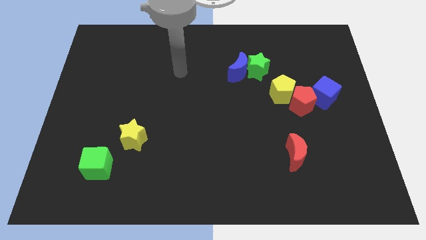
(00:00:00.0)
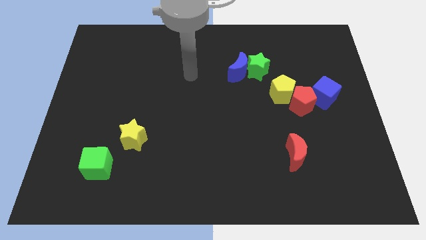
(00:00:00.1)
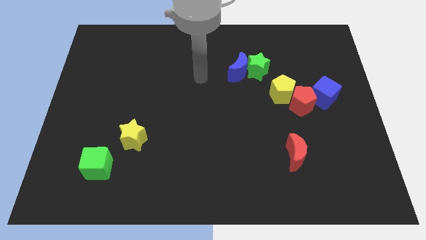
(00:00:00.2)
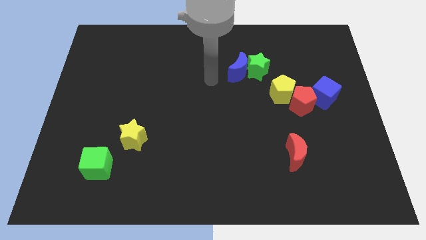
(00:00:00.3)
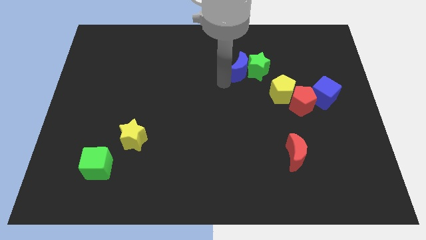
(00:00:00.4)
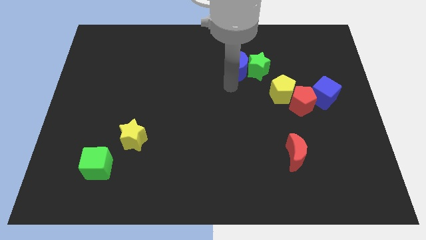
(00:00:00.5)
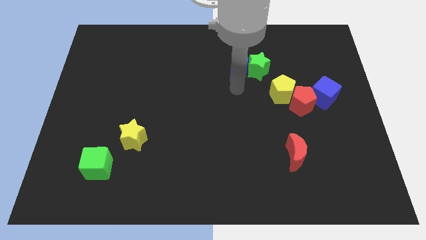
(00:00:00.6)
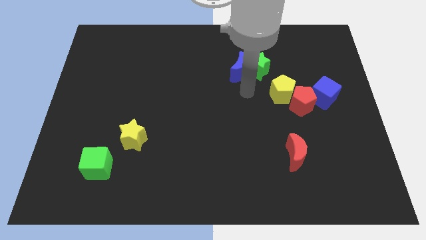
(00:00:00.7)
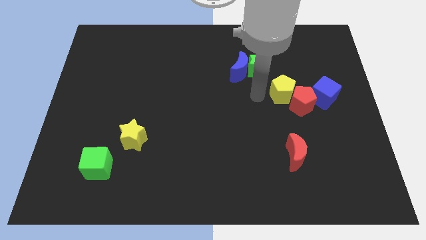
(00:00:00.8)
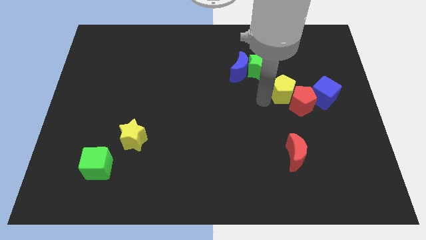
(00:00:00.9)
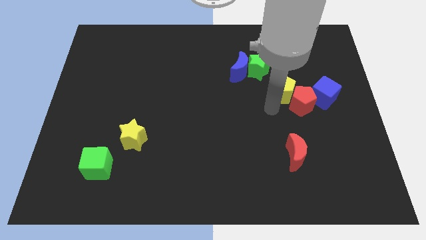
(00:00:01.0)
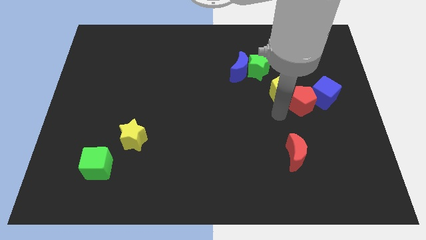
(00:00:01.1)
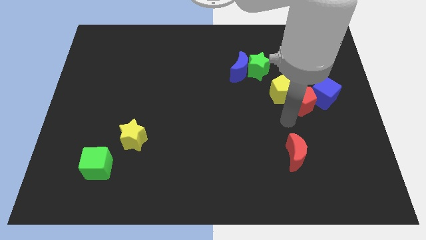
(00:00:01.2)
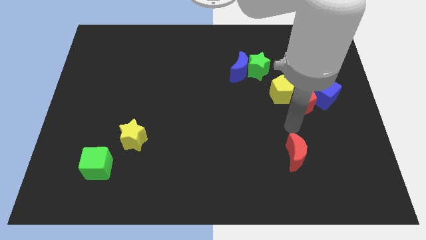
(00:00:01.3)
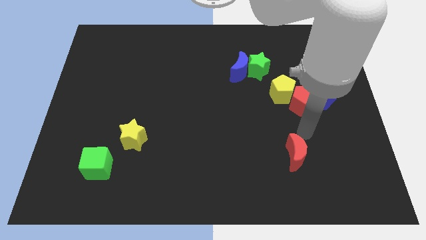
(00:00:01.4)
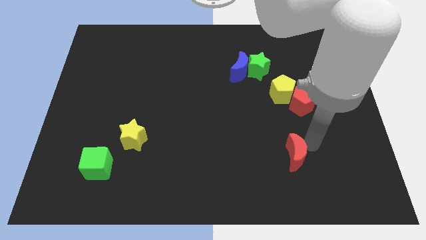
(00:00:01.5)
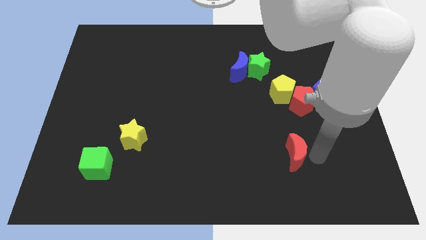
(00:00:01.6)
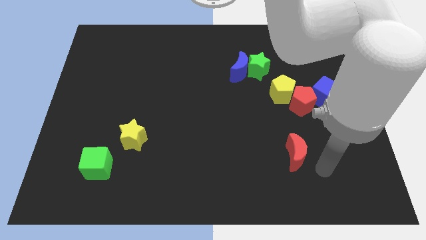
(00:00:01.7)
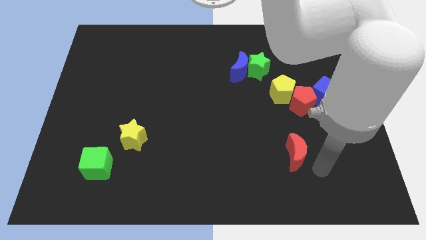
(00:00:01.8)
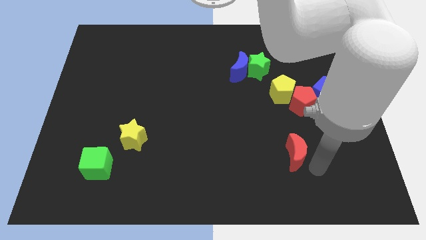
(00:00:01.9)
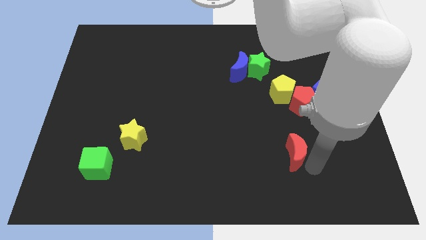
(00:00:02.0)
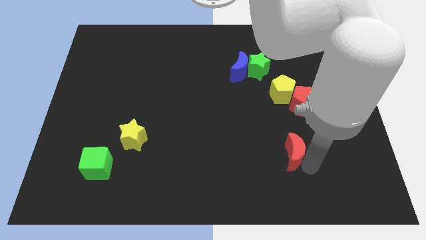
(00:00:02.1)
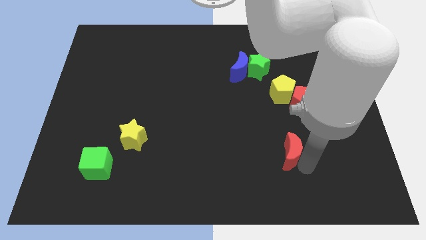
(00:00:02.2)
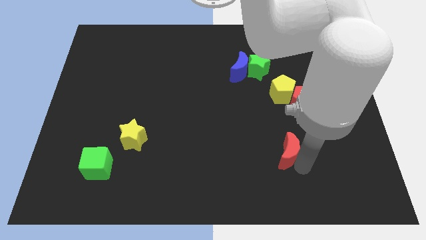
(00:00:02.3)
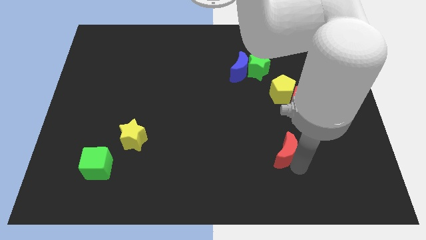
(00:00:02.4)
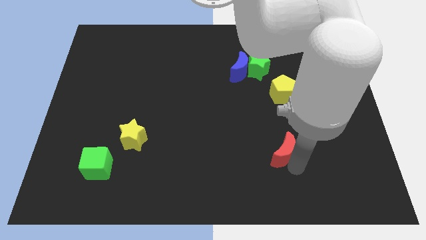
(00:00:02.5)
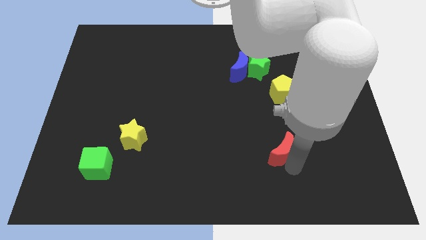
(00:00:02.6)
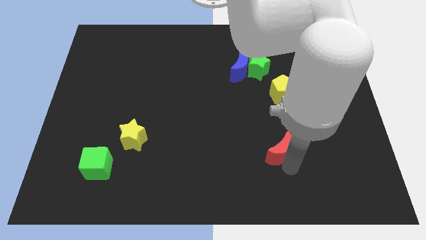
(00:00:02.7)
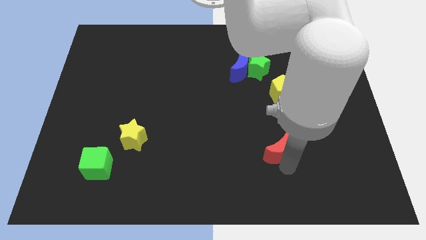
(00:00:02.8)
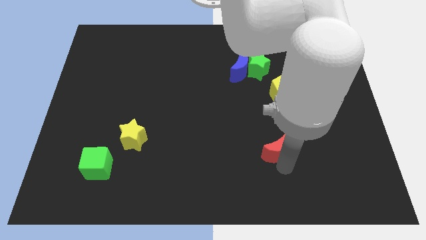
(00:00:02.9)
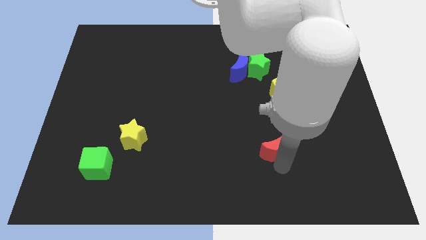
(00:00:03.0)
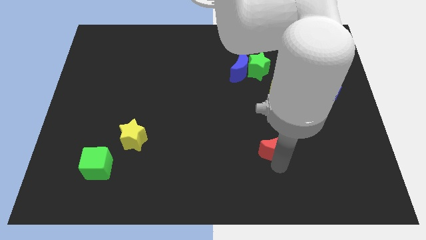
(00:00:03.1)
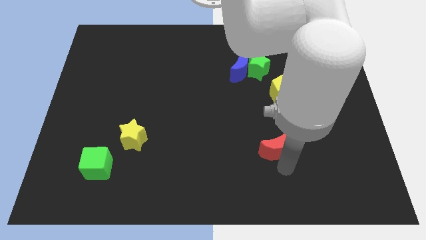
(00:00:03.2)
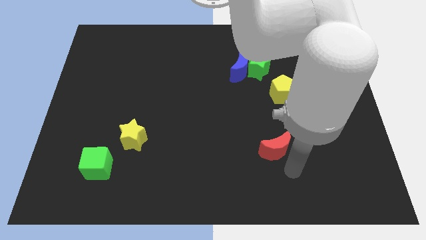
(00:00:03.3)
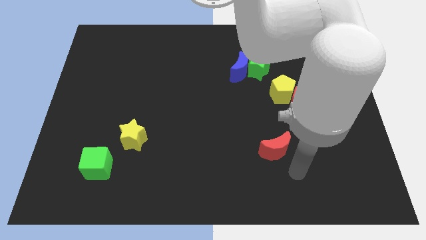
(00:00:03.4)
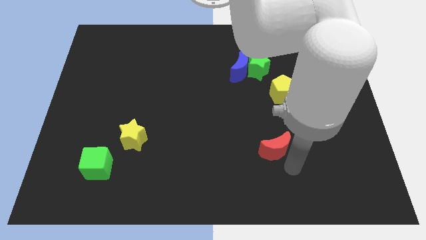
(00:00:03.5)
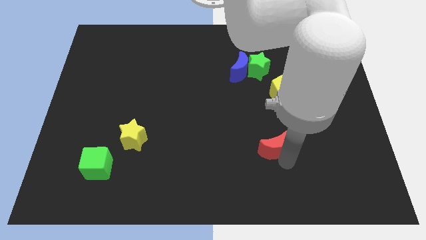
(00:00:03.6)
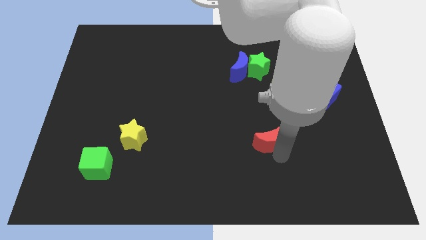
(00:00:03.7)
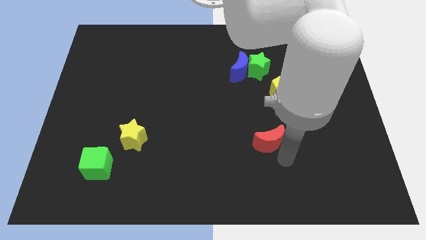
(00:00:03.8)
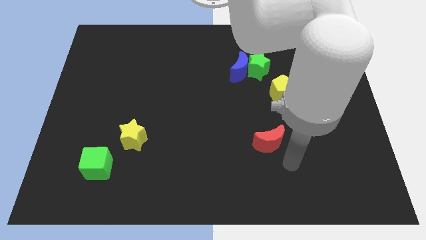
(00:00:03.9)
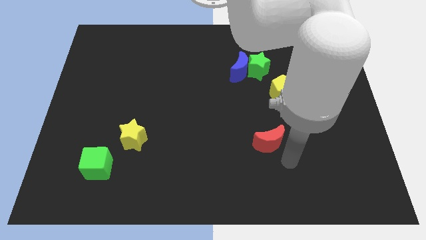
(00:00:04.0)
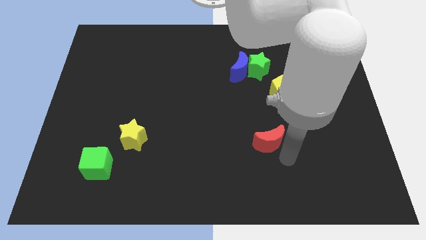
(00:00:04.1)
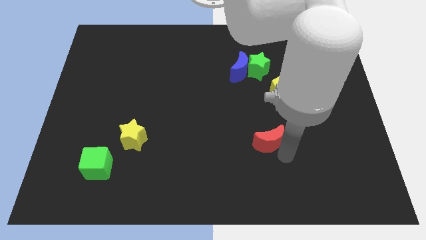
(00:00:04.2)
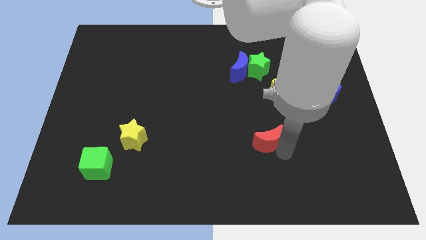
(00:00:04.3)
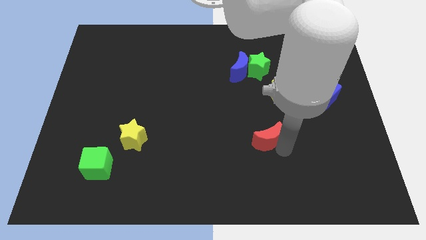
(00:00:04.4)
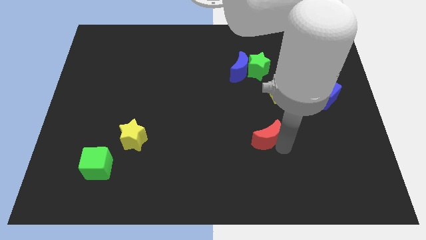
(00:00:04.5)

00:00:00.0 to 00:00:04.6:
move the red moon a bit diagonally upwards and to the left

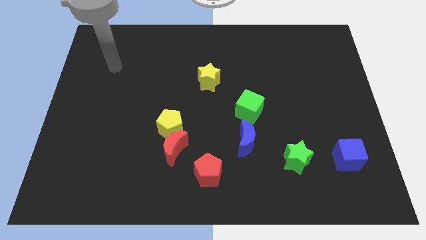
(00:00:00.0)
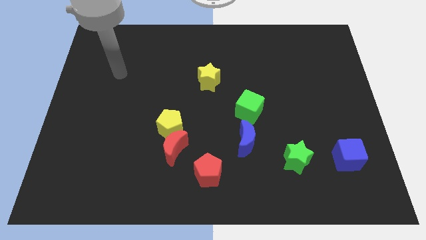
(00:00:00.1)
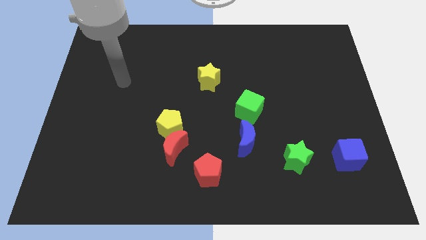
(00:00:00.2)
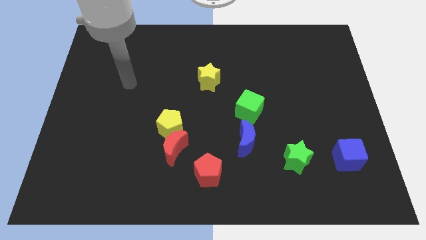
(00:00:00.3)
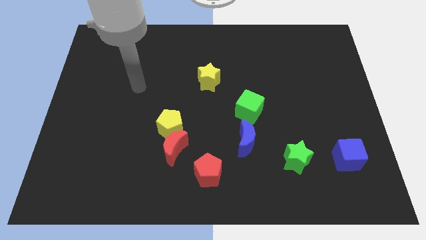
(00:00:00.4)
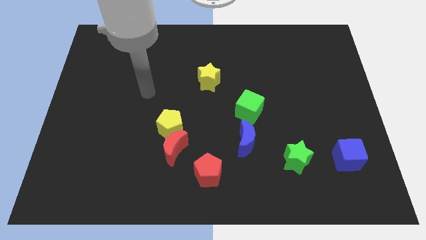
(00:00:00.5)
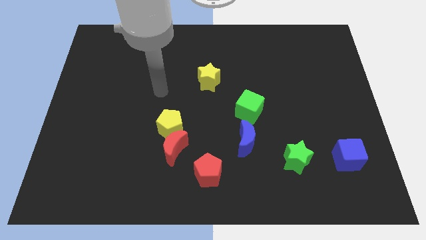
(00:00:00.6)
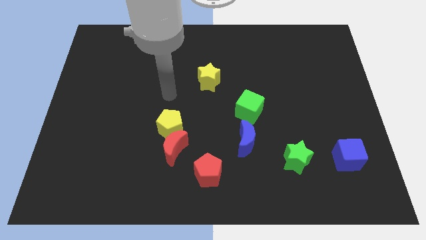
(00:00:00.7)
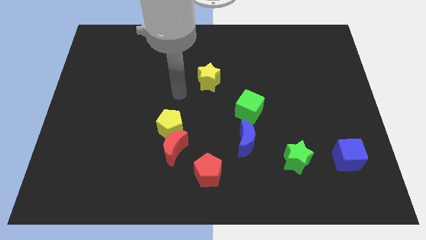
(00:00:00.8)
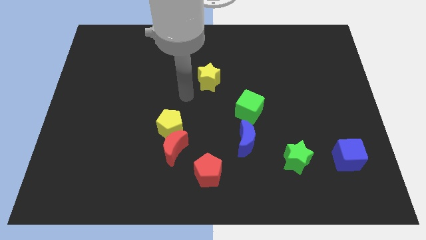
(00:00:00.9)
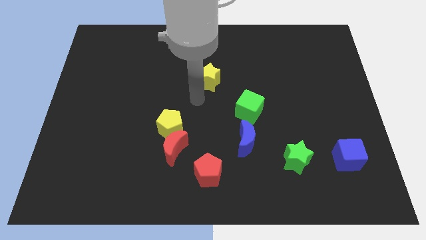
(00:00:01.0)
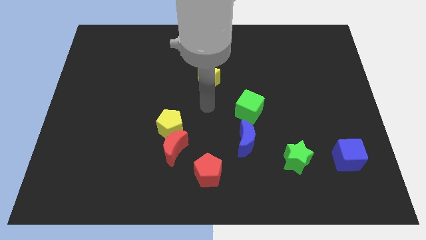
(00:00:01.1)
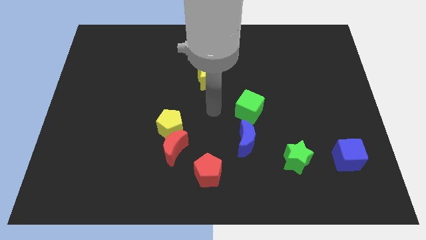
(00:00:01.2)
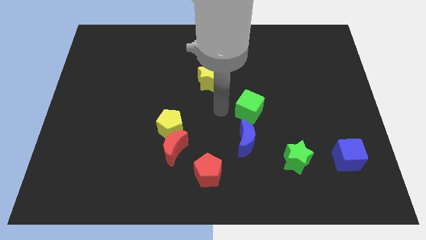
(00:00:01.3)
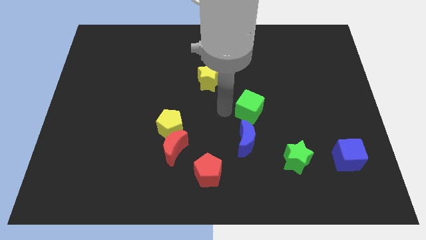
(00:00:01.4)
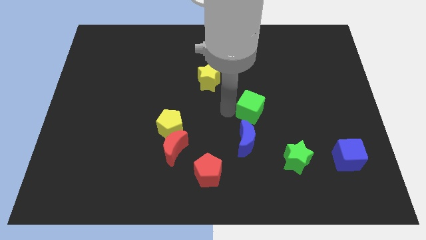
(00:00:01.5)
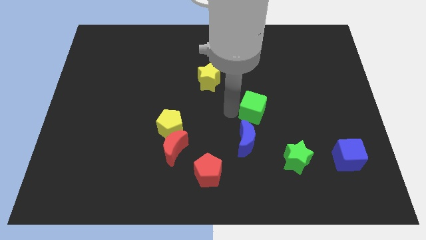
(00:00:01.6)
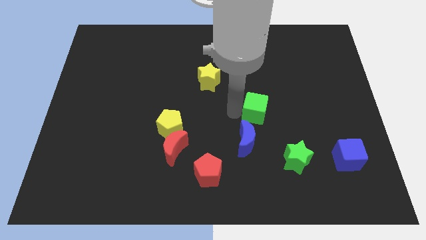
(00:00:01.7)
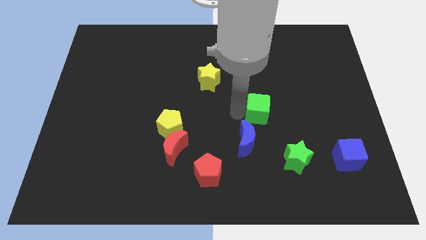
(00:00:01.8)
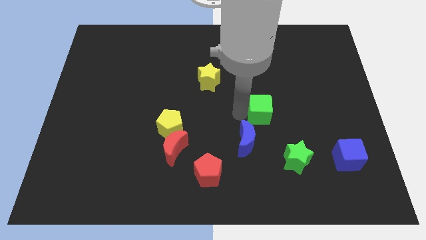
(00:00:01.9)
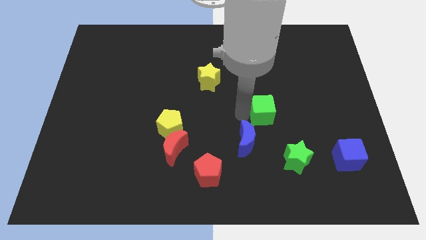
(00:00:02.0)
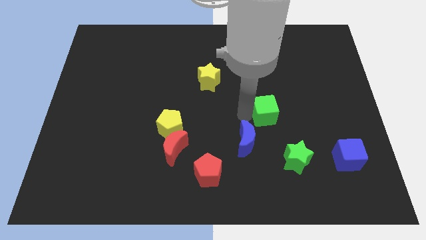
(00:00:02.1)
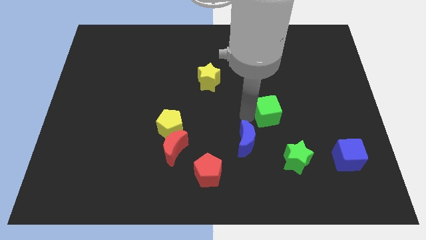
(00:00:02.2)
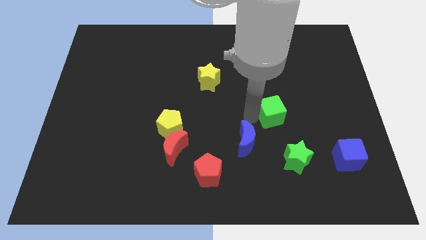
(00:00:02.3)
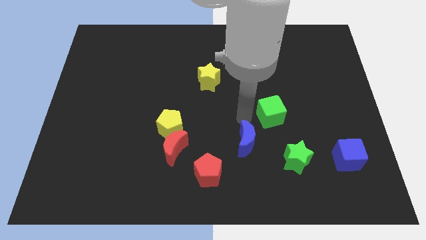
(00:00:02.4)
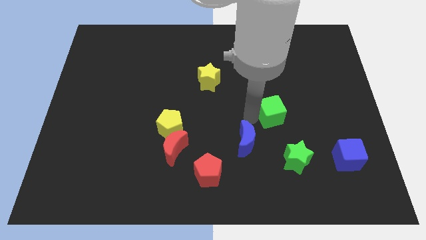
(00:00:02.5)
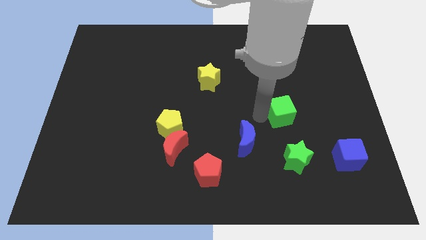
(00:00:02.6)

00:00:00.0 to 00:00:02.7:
slide the green cube to the right slightly

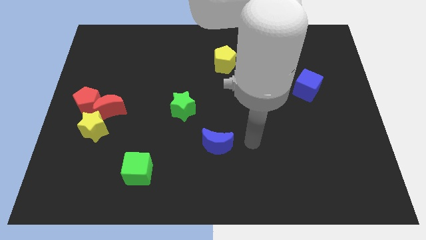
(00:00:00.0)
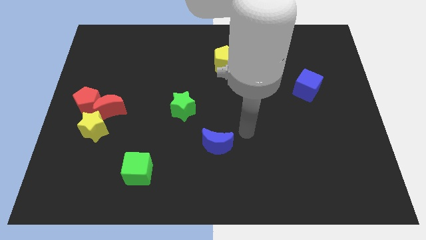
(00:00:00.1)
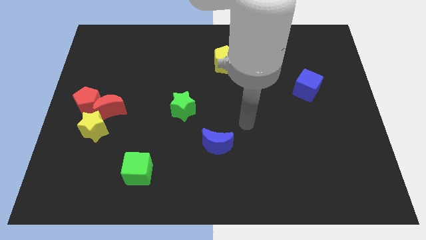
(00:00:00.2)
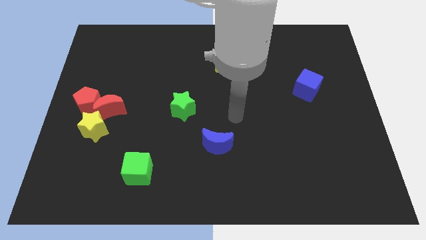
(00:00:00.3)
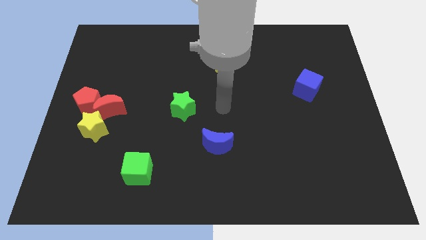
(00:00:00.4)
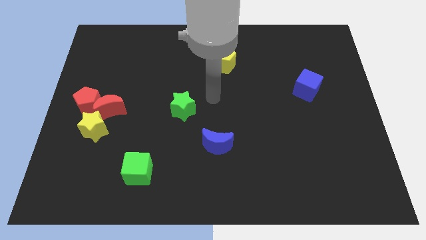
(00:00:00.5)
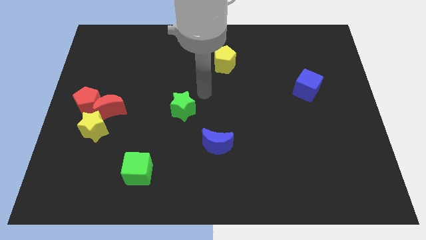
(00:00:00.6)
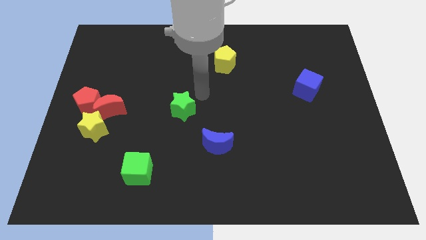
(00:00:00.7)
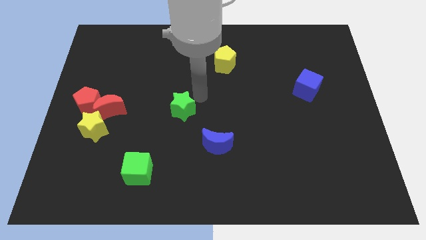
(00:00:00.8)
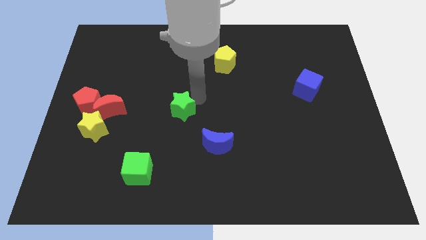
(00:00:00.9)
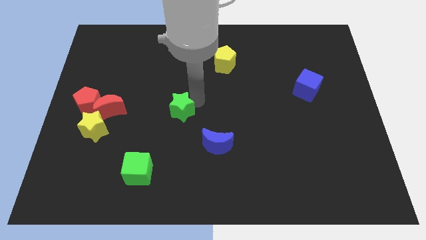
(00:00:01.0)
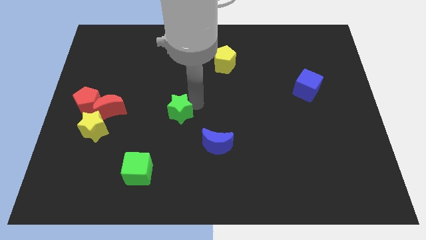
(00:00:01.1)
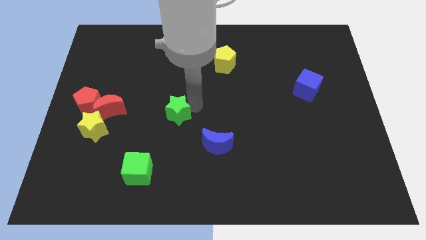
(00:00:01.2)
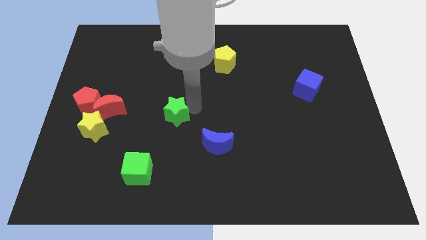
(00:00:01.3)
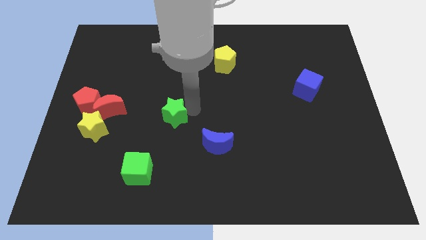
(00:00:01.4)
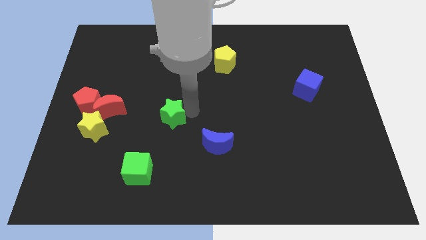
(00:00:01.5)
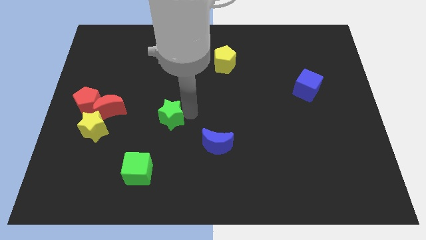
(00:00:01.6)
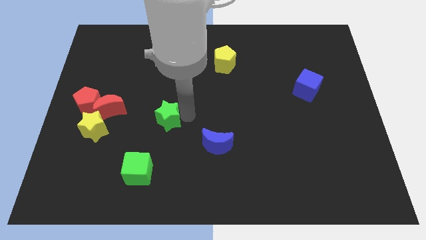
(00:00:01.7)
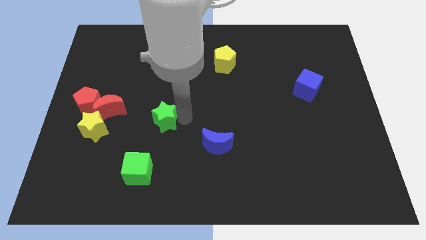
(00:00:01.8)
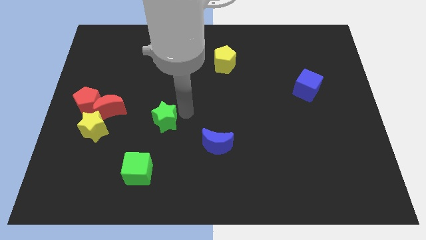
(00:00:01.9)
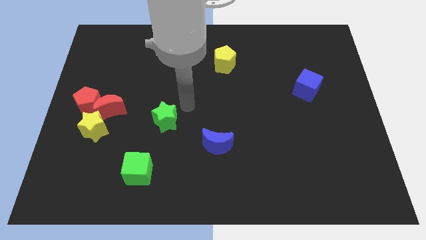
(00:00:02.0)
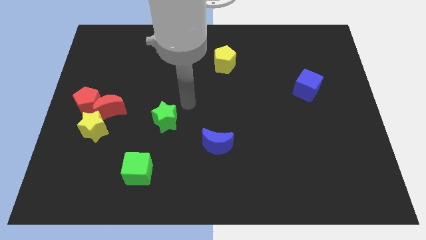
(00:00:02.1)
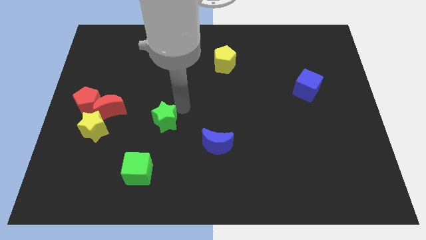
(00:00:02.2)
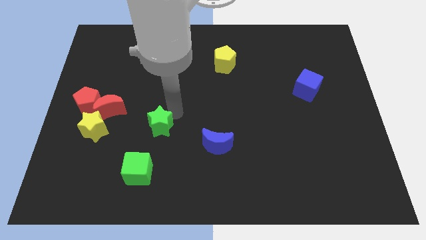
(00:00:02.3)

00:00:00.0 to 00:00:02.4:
push the green star a little downwards and to the left diagonally
